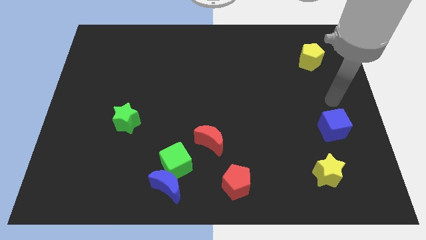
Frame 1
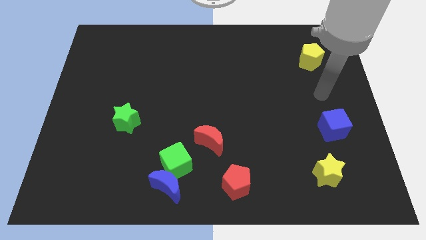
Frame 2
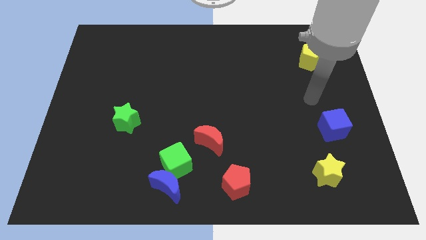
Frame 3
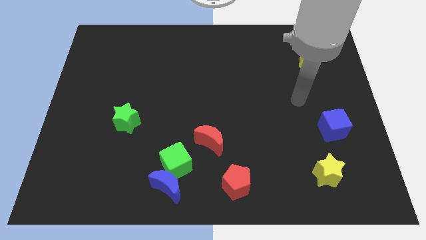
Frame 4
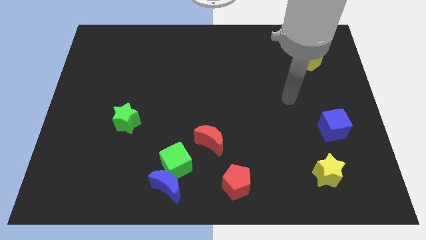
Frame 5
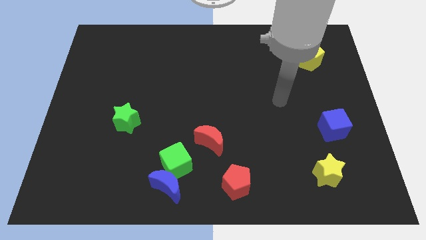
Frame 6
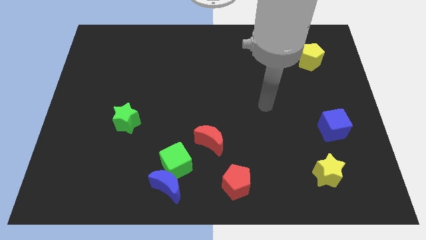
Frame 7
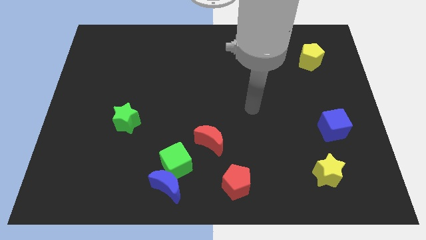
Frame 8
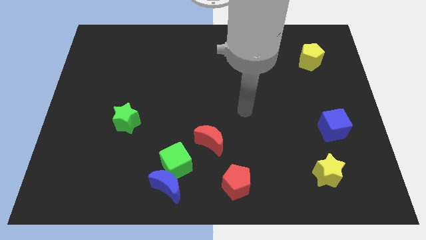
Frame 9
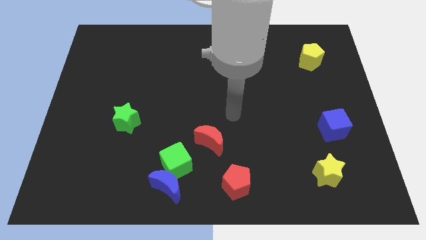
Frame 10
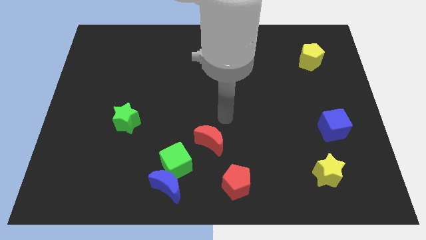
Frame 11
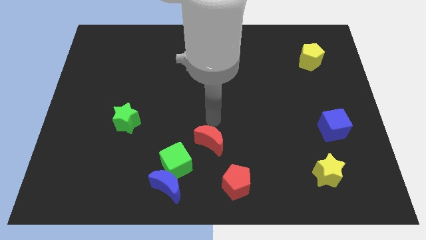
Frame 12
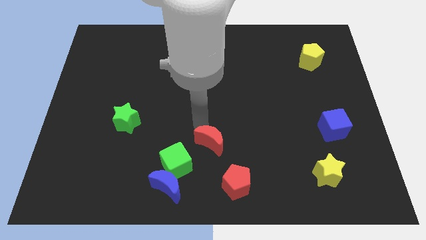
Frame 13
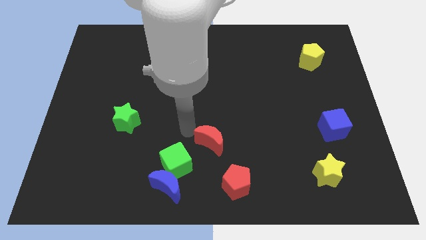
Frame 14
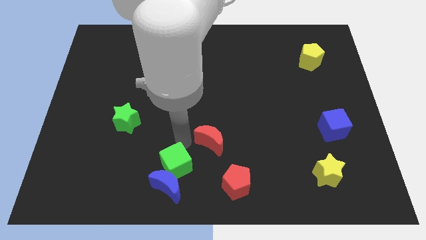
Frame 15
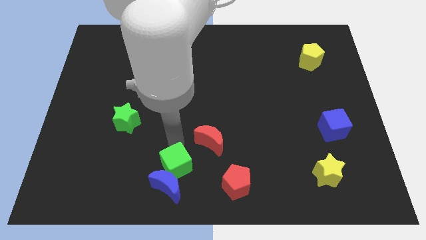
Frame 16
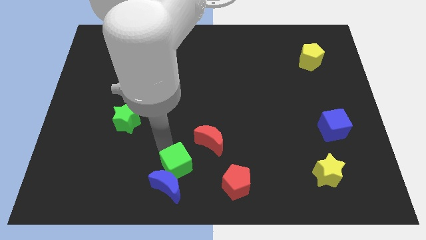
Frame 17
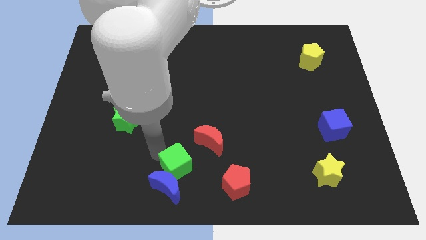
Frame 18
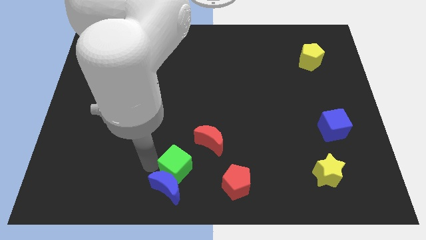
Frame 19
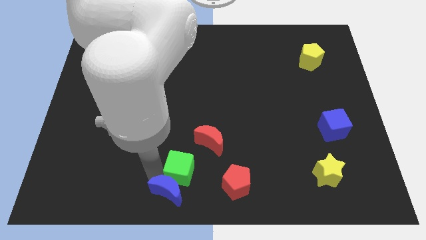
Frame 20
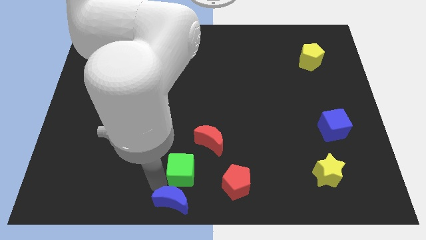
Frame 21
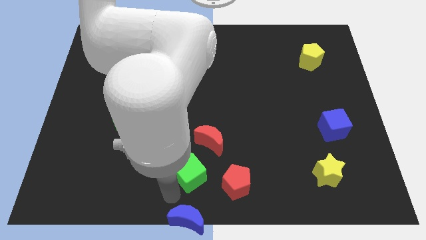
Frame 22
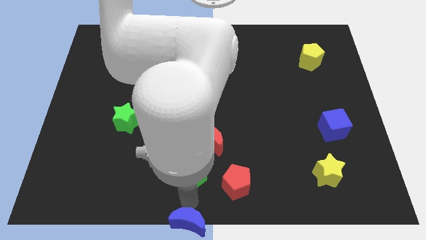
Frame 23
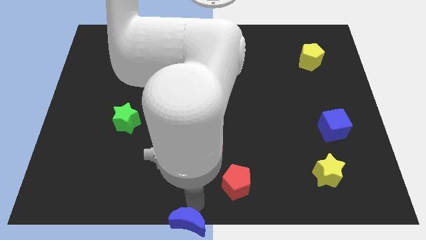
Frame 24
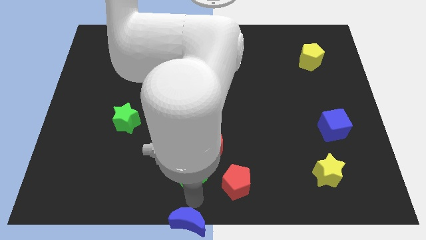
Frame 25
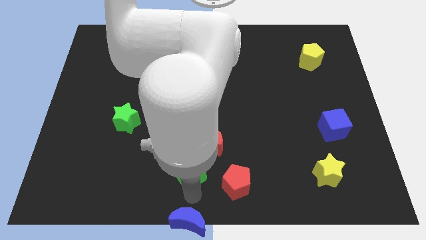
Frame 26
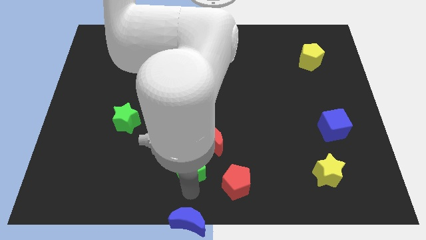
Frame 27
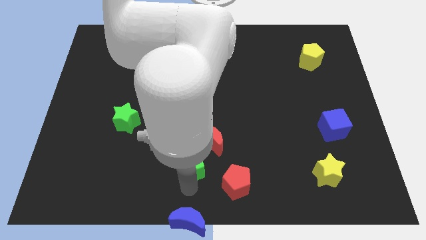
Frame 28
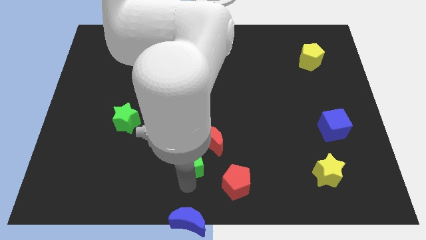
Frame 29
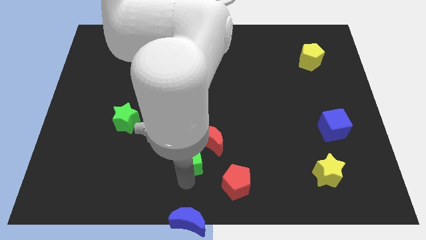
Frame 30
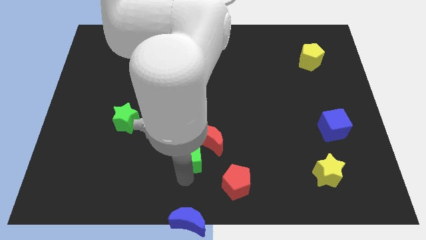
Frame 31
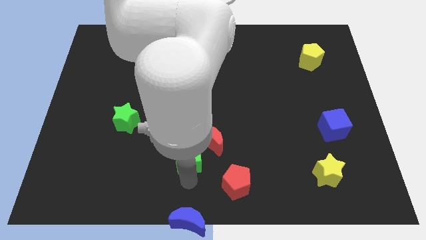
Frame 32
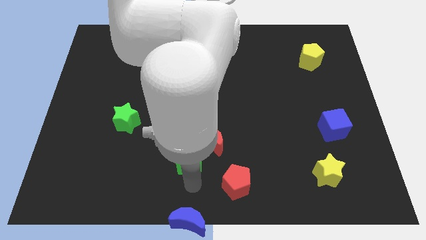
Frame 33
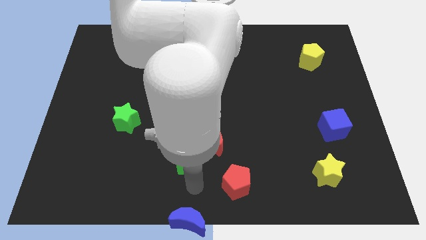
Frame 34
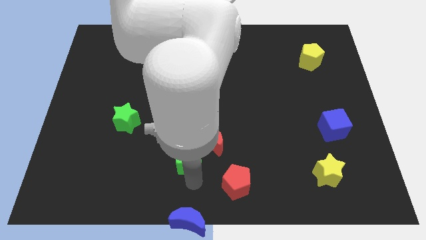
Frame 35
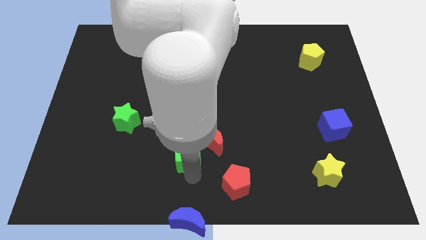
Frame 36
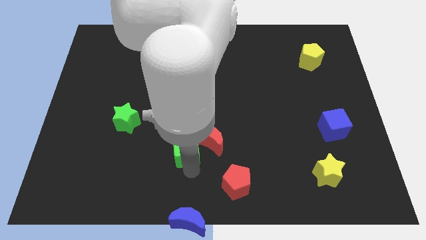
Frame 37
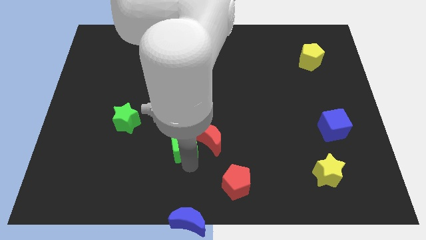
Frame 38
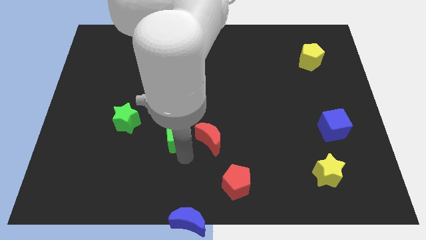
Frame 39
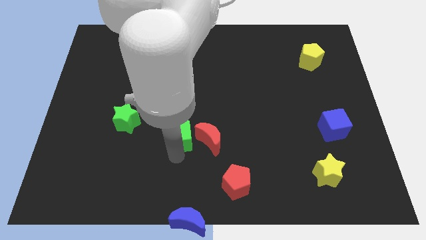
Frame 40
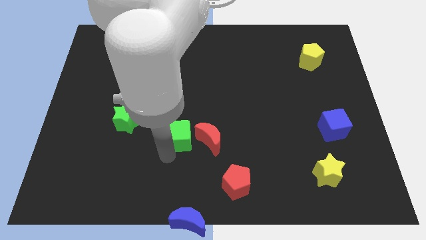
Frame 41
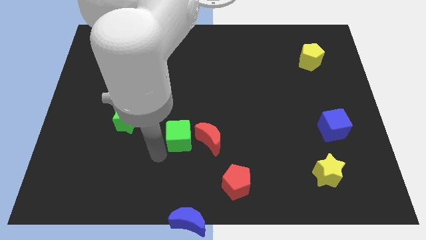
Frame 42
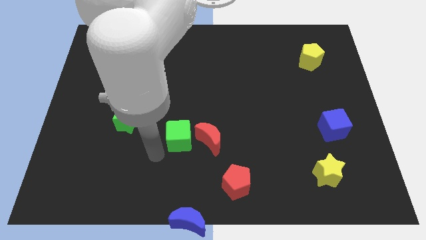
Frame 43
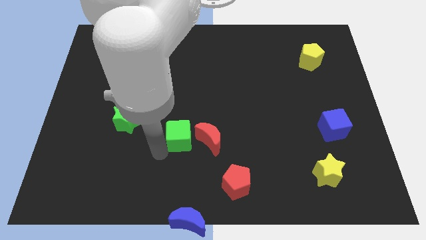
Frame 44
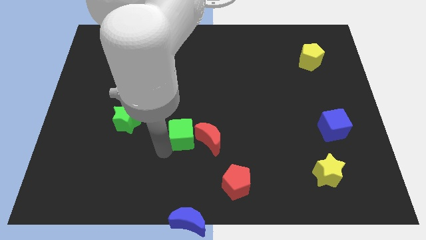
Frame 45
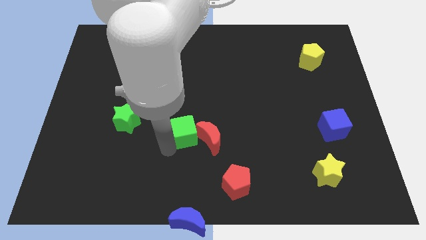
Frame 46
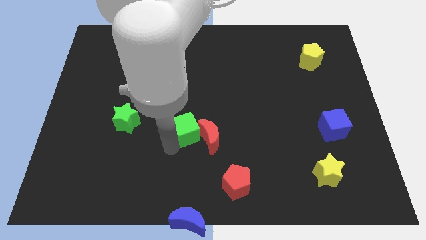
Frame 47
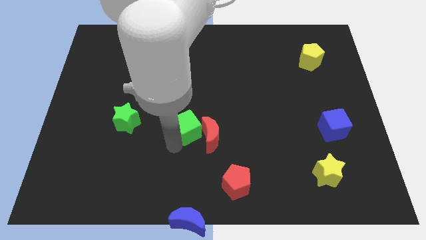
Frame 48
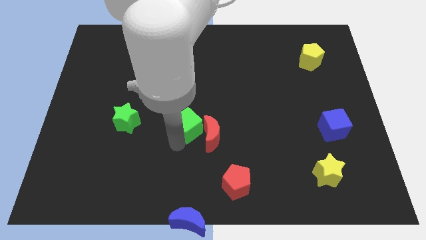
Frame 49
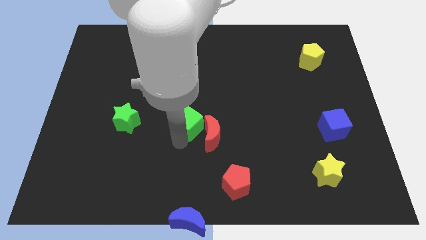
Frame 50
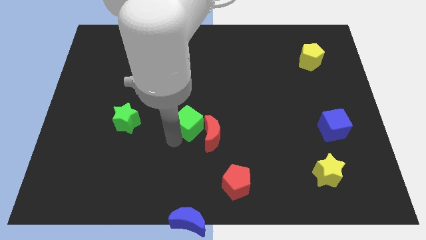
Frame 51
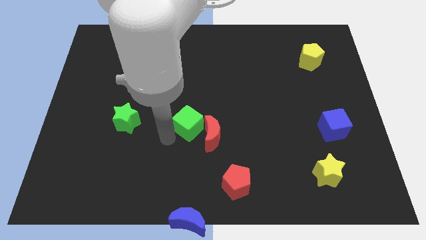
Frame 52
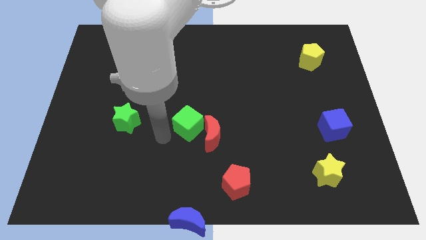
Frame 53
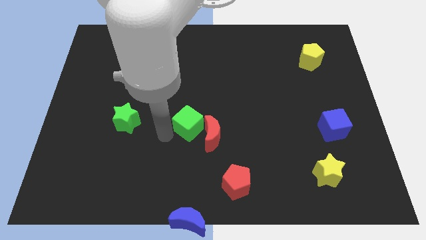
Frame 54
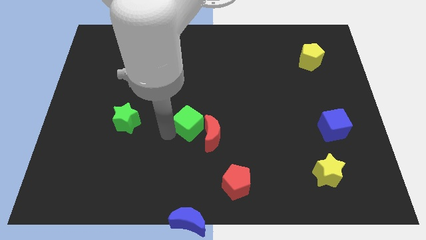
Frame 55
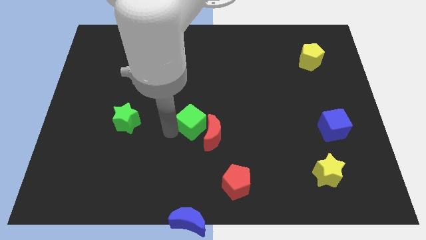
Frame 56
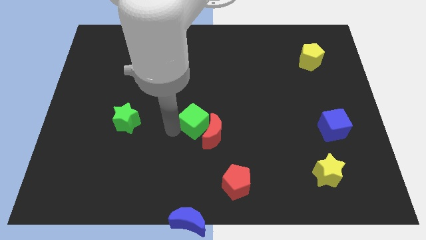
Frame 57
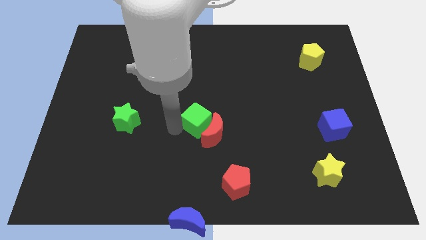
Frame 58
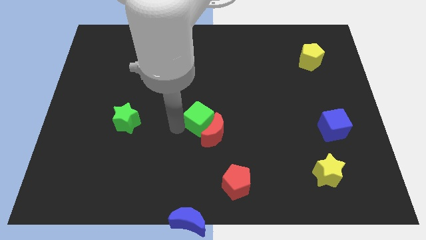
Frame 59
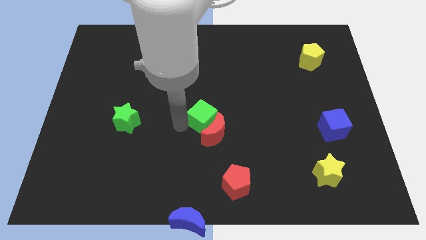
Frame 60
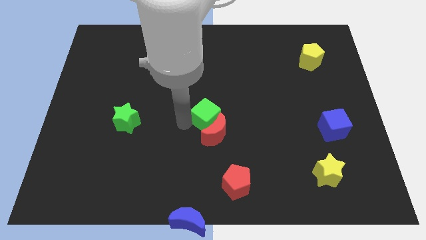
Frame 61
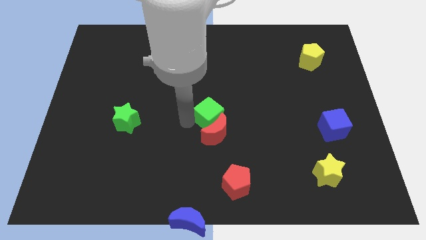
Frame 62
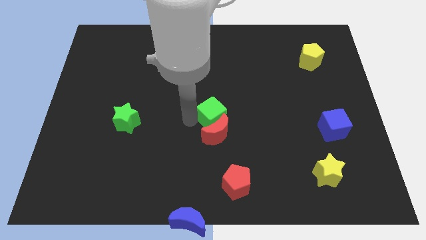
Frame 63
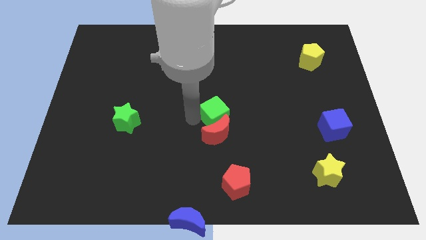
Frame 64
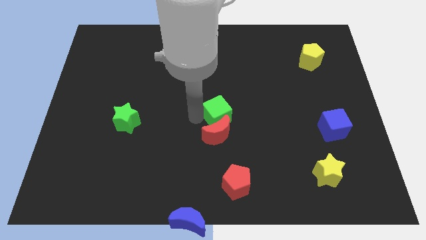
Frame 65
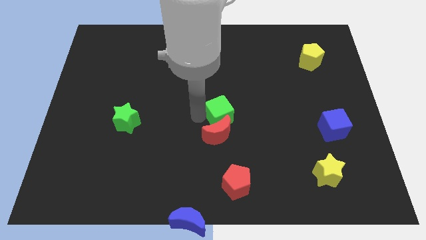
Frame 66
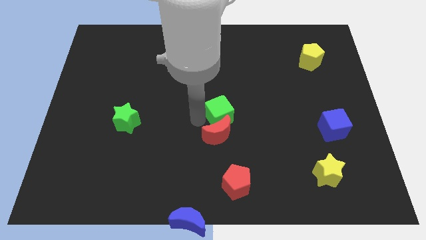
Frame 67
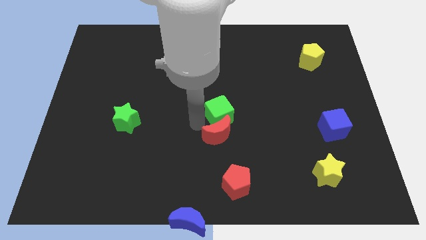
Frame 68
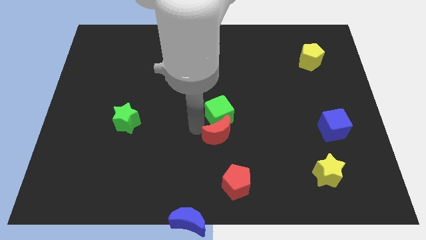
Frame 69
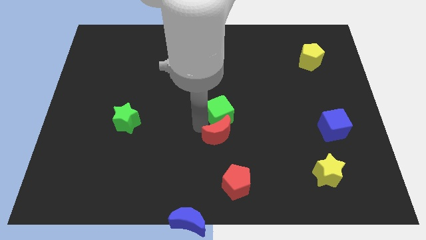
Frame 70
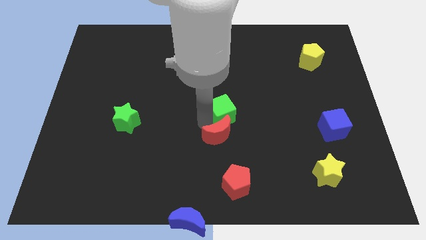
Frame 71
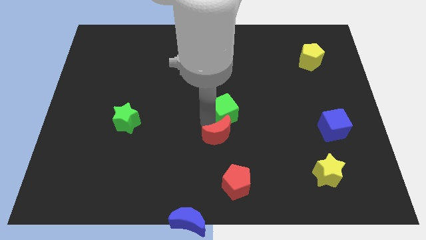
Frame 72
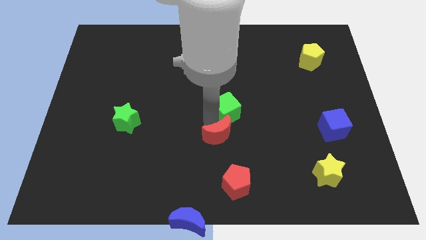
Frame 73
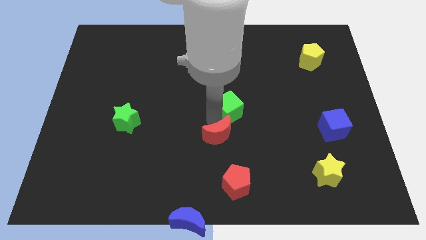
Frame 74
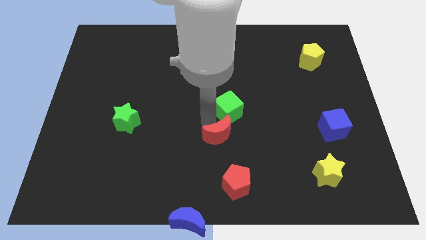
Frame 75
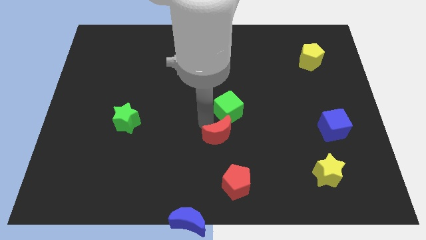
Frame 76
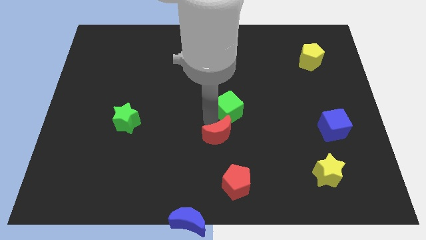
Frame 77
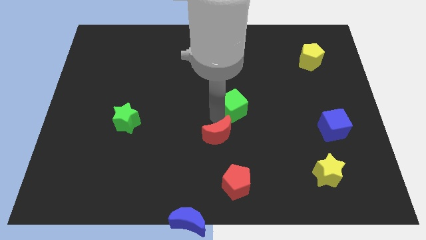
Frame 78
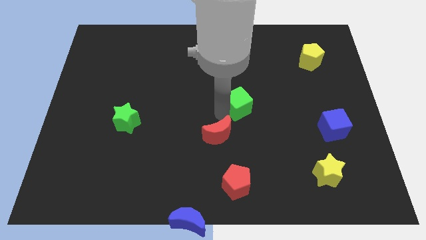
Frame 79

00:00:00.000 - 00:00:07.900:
slide the green cube upwards and then to the right

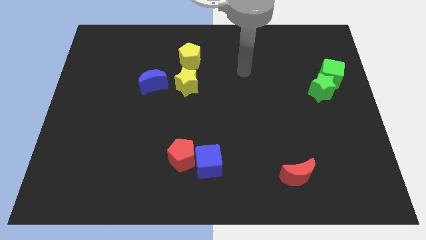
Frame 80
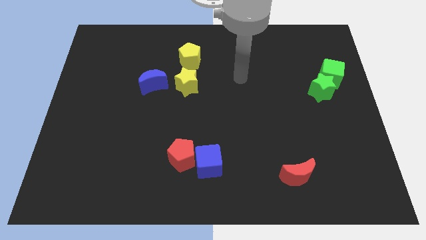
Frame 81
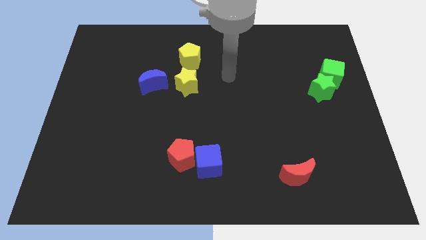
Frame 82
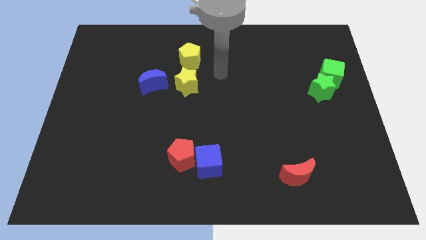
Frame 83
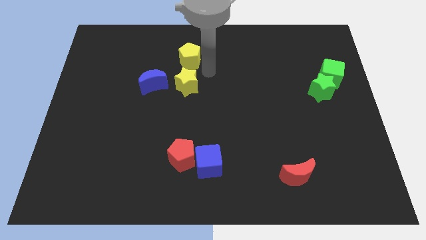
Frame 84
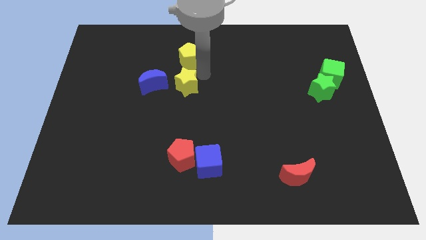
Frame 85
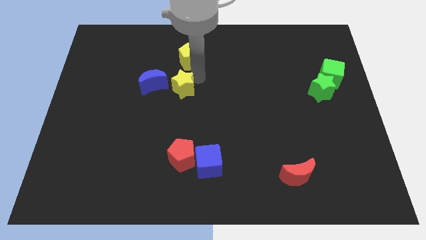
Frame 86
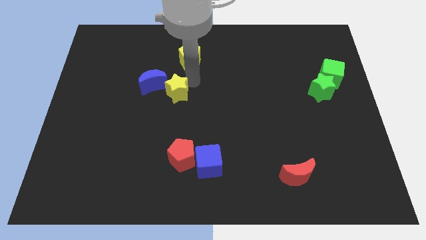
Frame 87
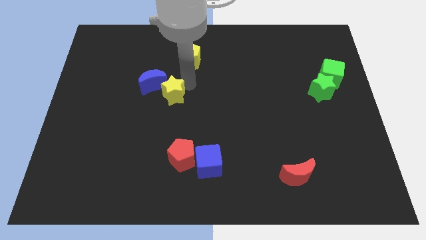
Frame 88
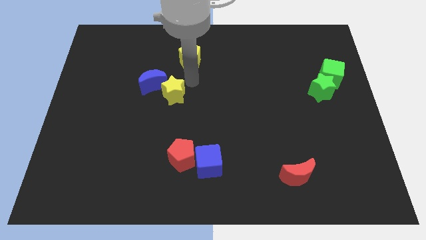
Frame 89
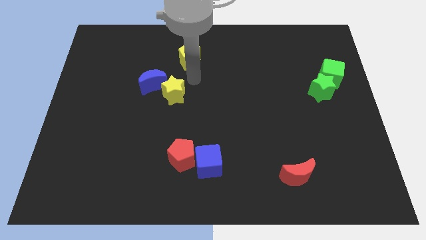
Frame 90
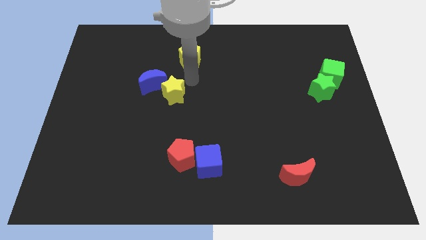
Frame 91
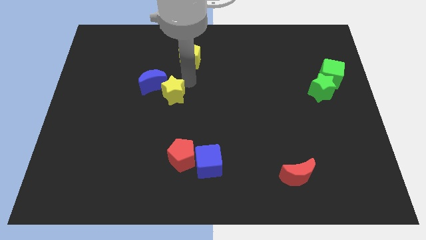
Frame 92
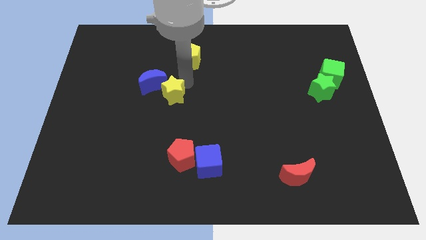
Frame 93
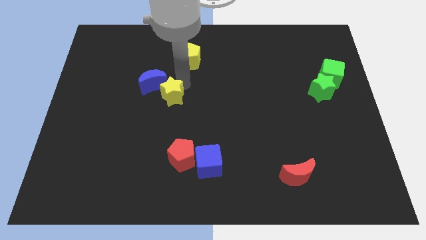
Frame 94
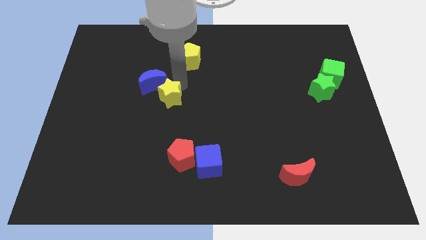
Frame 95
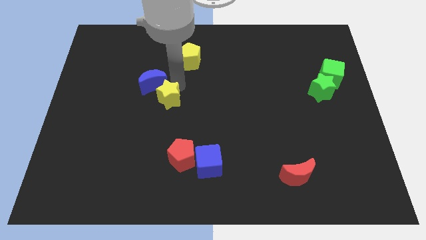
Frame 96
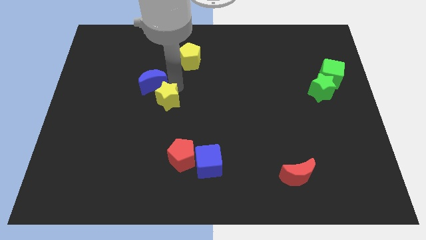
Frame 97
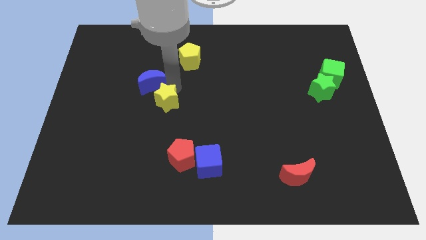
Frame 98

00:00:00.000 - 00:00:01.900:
move the yellow star downwards and to the left diagonally somewhat
